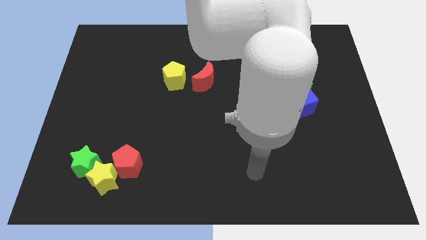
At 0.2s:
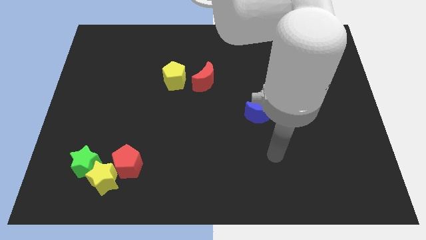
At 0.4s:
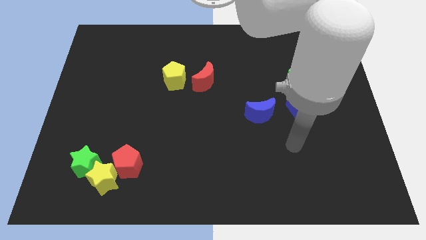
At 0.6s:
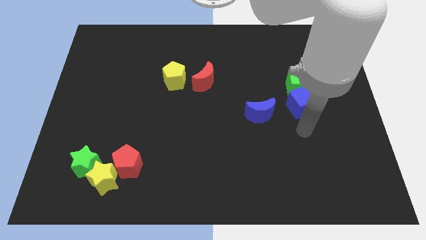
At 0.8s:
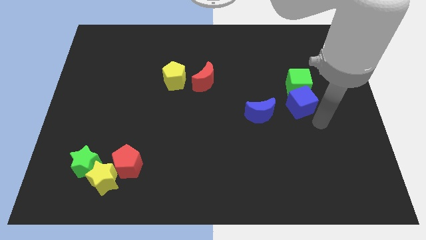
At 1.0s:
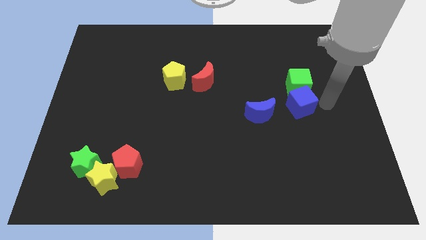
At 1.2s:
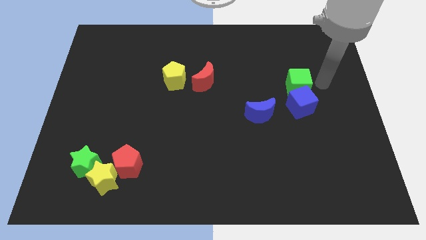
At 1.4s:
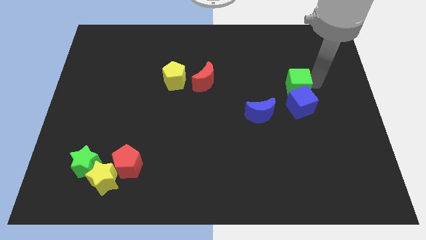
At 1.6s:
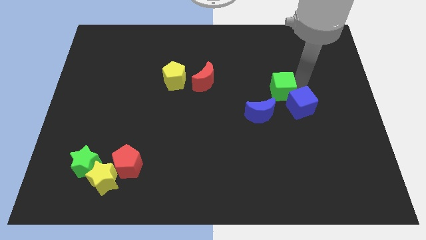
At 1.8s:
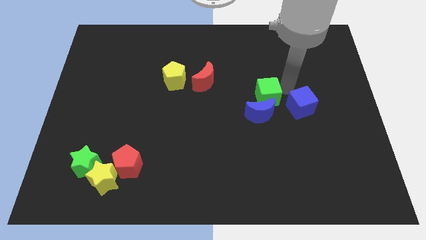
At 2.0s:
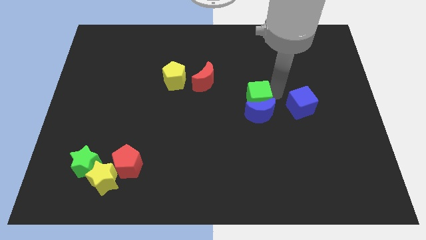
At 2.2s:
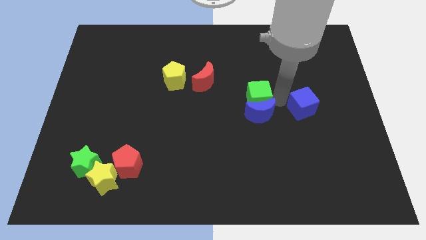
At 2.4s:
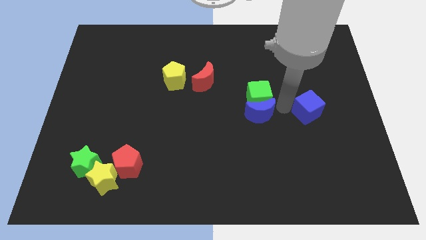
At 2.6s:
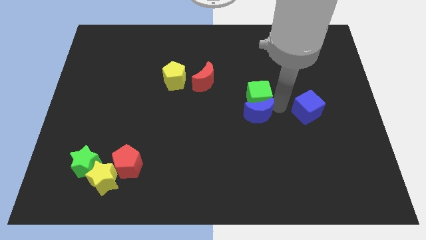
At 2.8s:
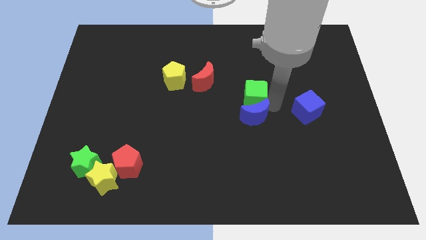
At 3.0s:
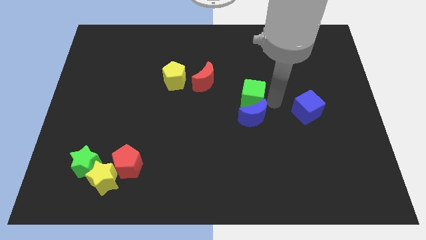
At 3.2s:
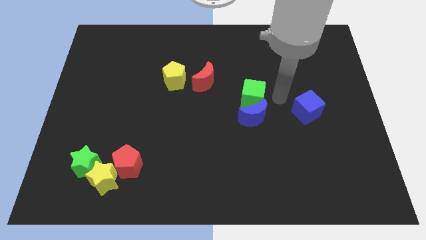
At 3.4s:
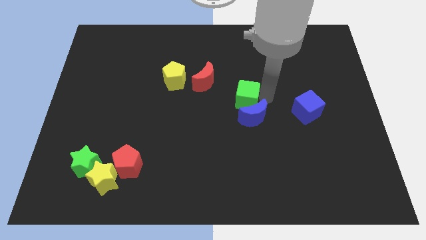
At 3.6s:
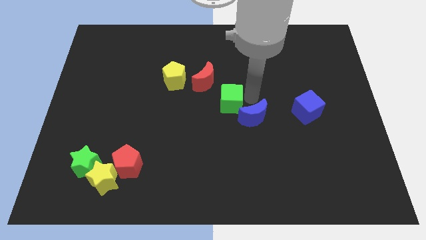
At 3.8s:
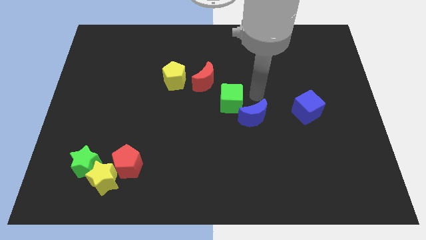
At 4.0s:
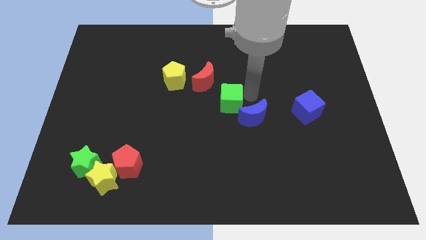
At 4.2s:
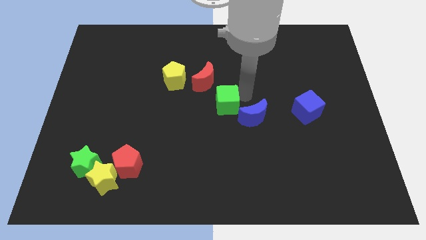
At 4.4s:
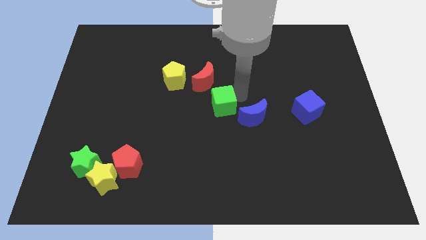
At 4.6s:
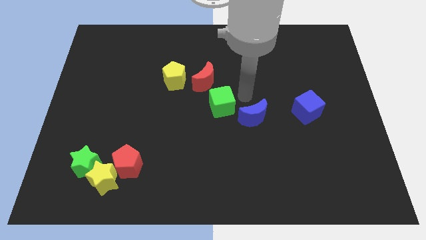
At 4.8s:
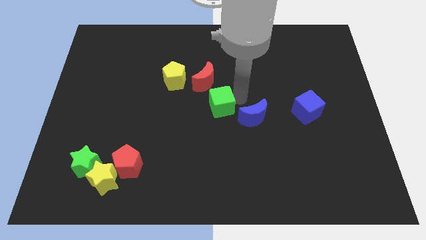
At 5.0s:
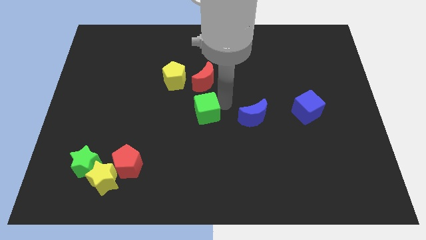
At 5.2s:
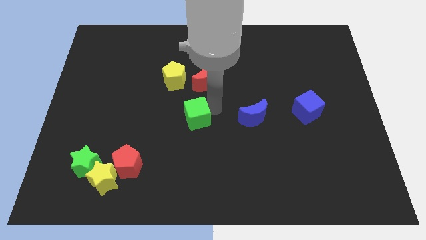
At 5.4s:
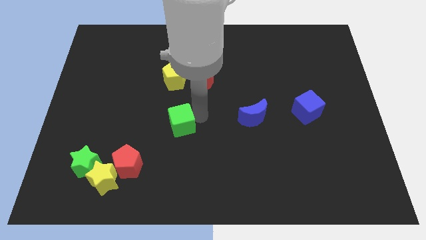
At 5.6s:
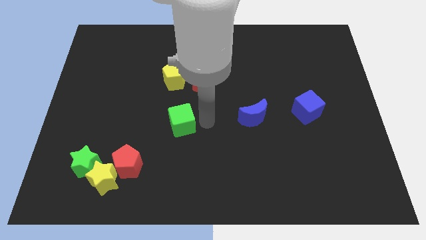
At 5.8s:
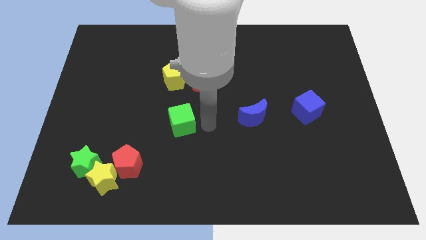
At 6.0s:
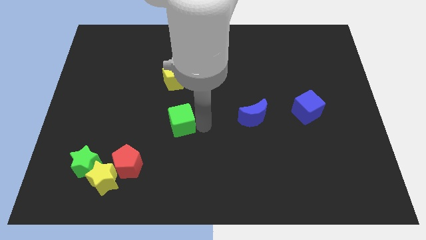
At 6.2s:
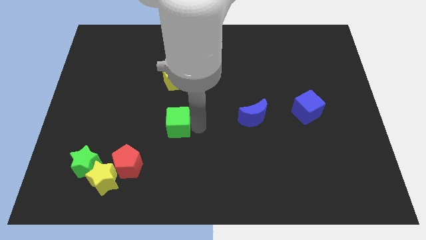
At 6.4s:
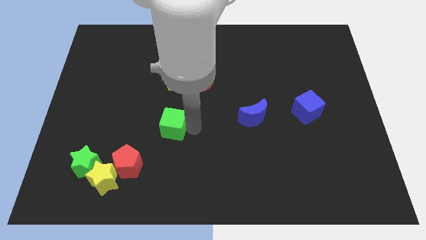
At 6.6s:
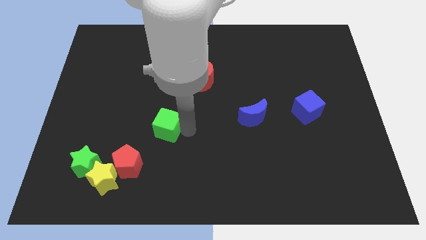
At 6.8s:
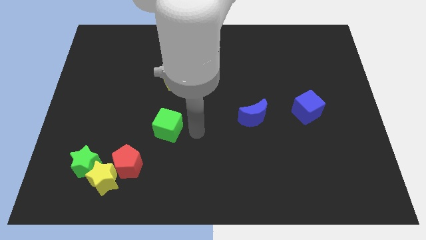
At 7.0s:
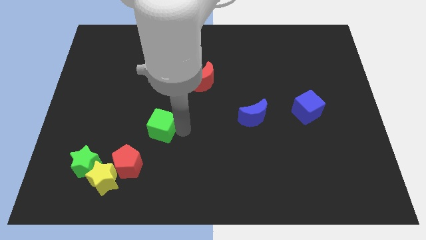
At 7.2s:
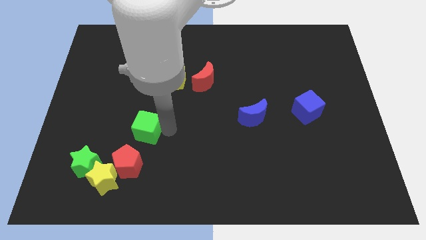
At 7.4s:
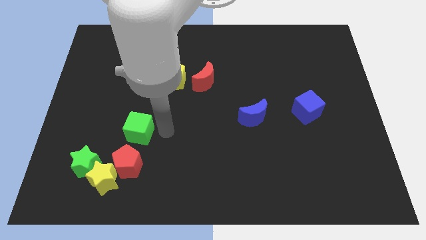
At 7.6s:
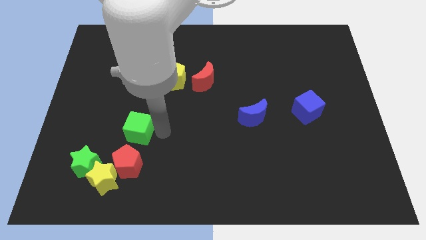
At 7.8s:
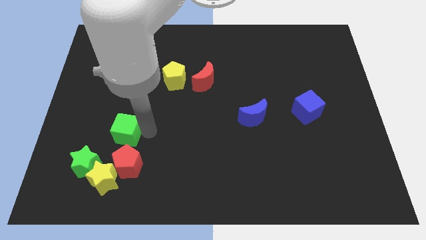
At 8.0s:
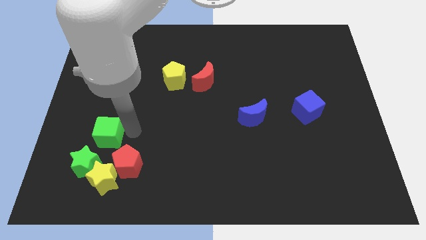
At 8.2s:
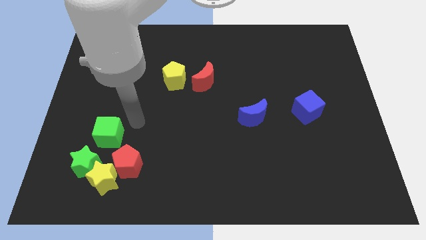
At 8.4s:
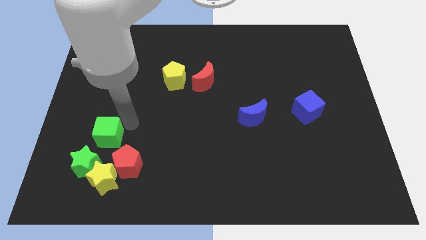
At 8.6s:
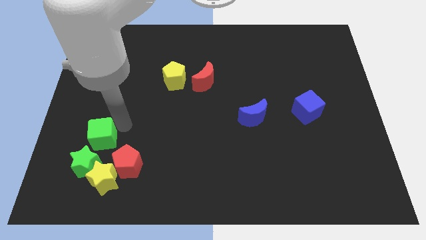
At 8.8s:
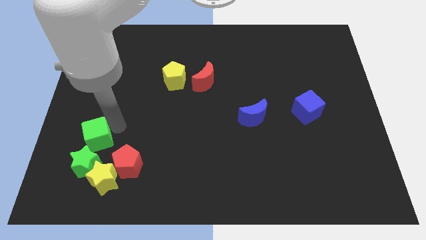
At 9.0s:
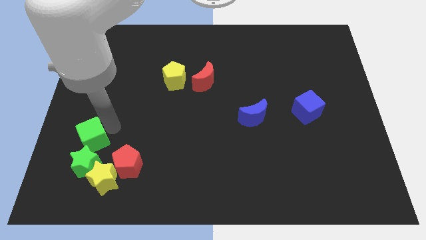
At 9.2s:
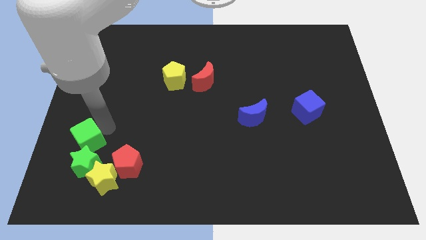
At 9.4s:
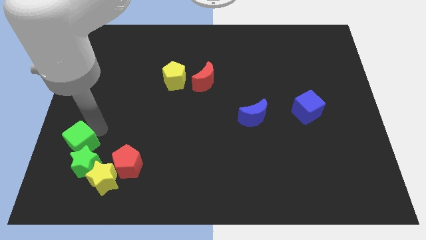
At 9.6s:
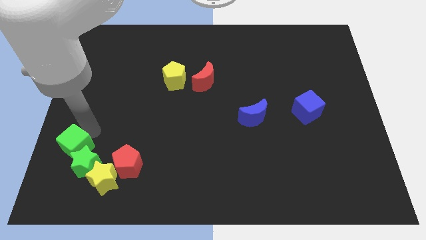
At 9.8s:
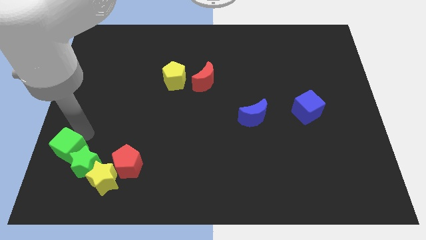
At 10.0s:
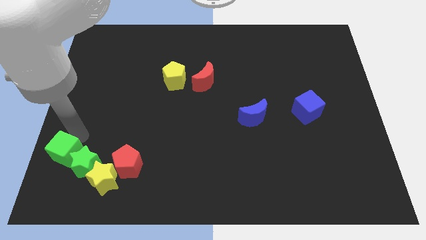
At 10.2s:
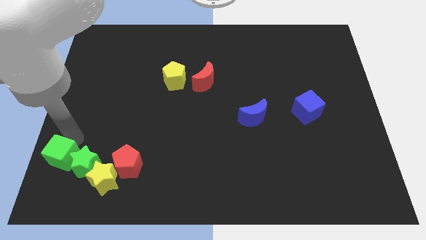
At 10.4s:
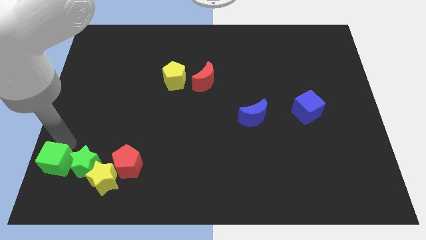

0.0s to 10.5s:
push the green cube to the bottom left corner

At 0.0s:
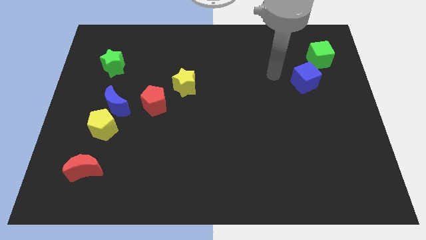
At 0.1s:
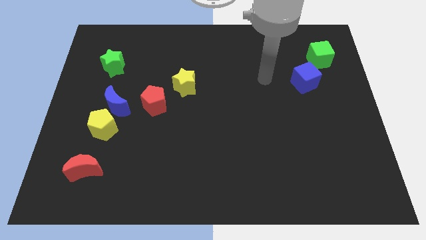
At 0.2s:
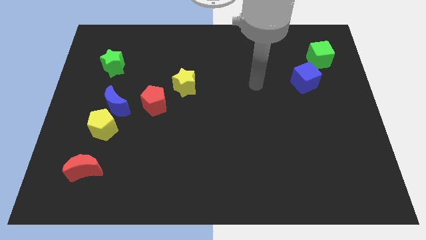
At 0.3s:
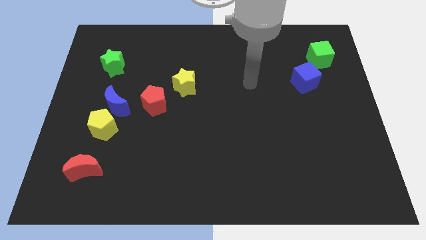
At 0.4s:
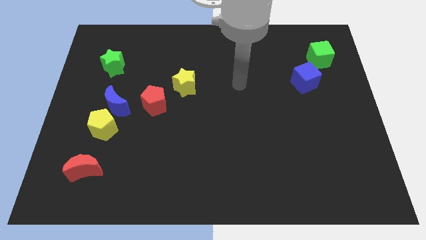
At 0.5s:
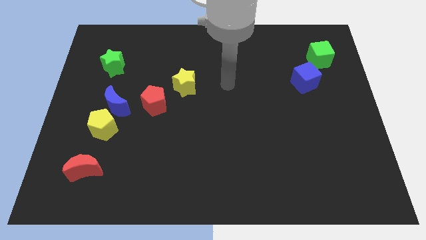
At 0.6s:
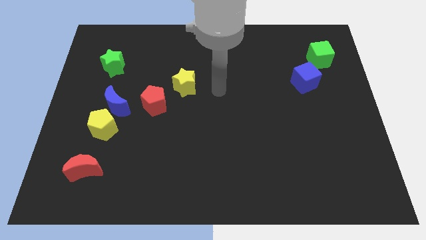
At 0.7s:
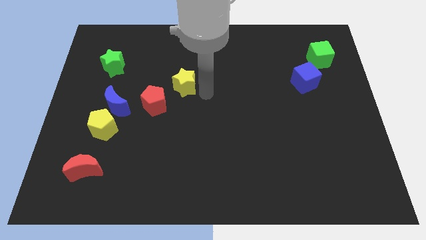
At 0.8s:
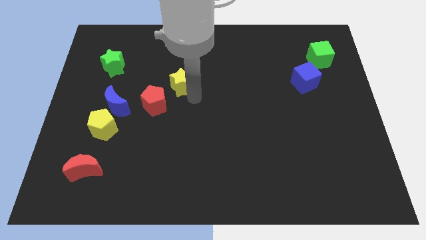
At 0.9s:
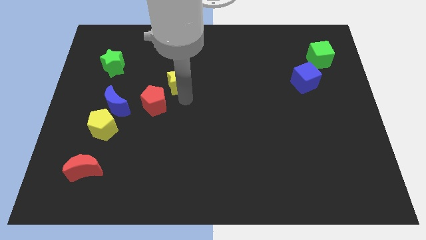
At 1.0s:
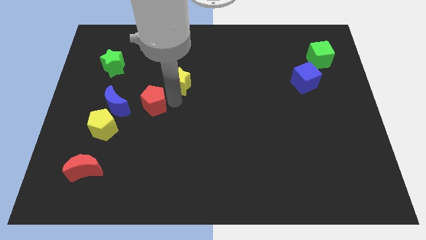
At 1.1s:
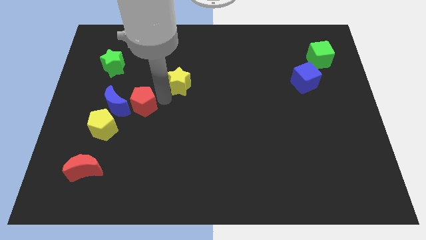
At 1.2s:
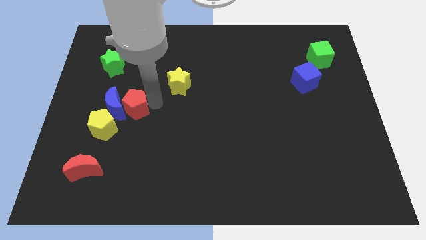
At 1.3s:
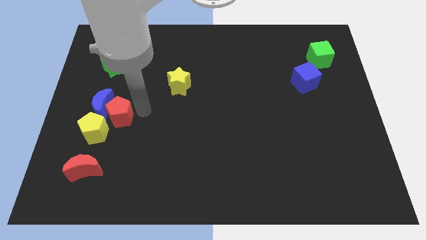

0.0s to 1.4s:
slide the blue moon to the left side
